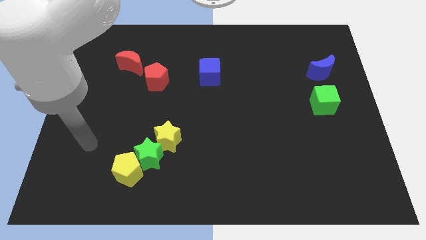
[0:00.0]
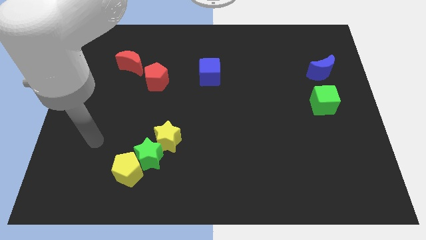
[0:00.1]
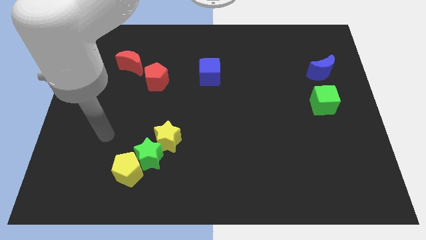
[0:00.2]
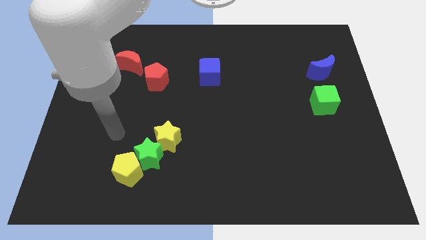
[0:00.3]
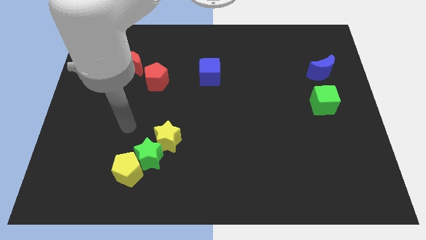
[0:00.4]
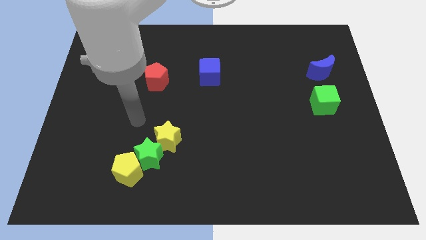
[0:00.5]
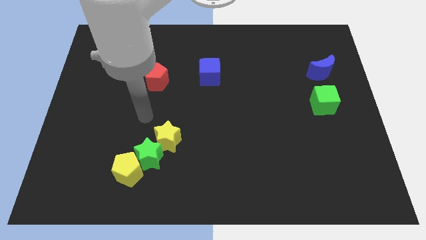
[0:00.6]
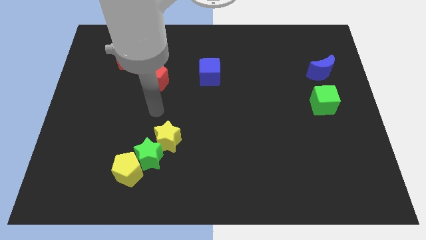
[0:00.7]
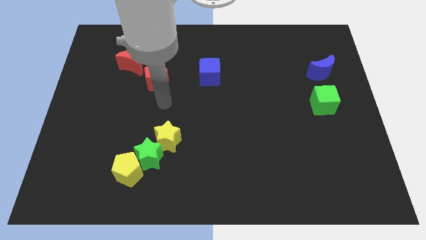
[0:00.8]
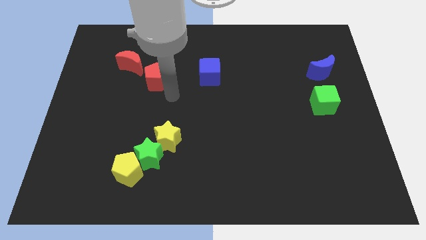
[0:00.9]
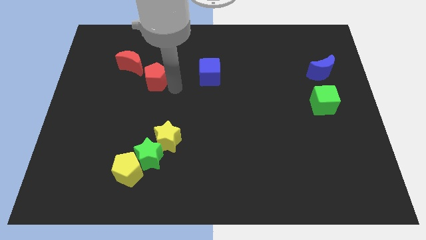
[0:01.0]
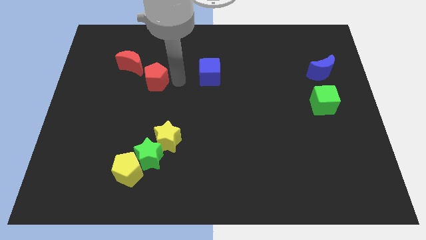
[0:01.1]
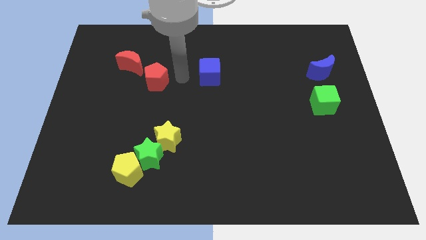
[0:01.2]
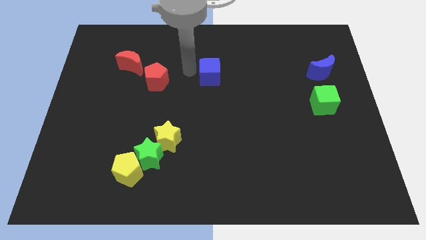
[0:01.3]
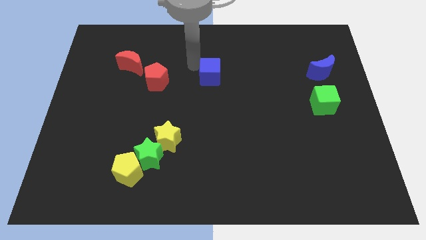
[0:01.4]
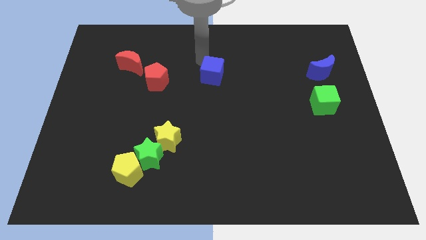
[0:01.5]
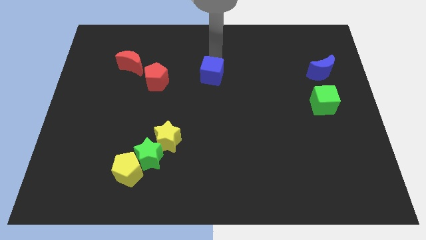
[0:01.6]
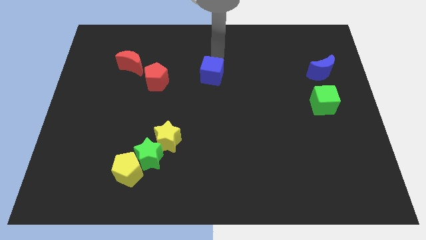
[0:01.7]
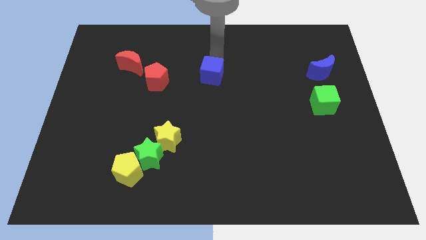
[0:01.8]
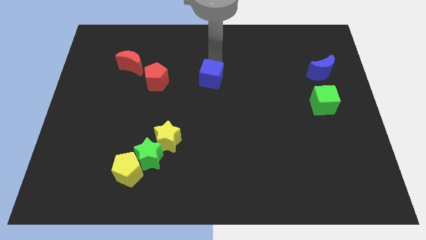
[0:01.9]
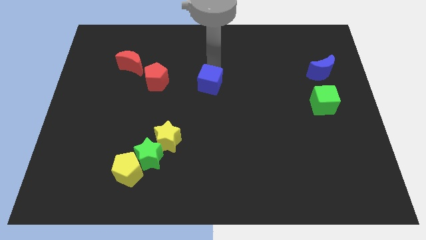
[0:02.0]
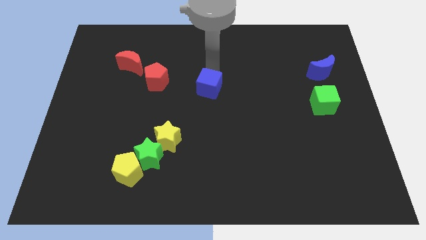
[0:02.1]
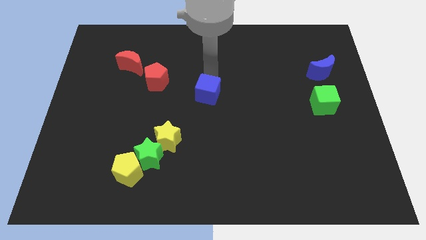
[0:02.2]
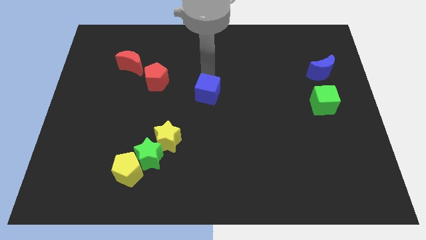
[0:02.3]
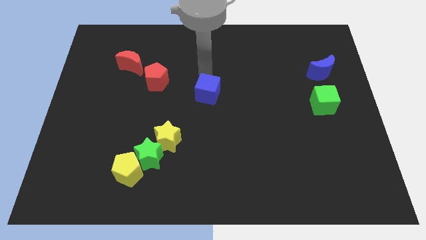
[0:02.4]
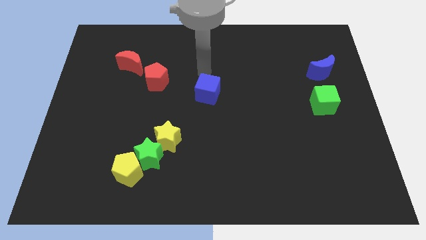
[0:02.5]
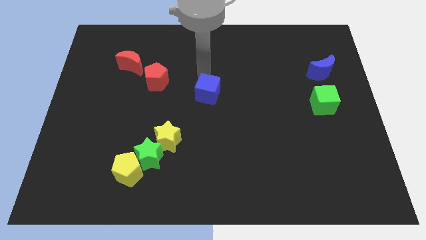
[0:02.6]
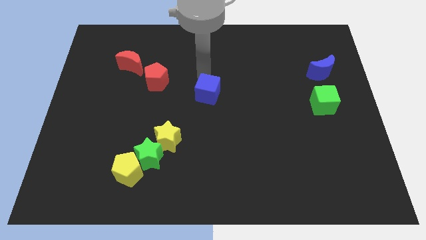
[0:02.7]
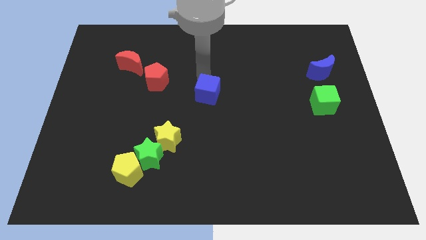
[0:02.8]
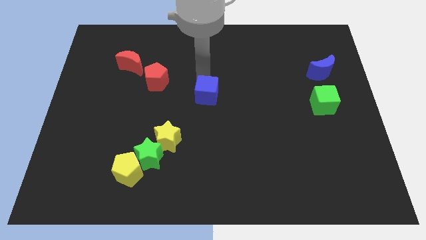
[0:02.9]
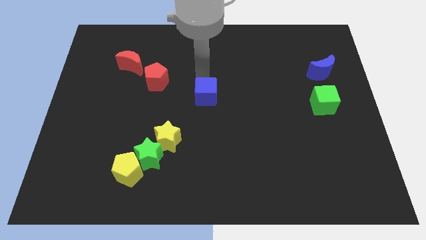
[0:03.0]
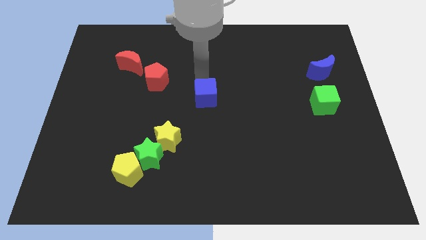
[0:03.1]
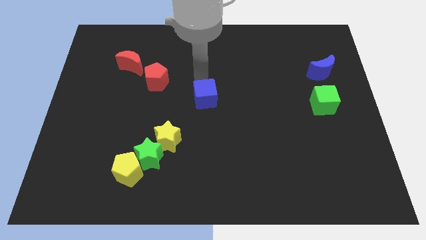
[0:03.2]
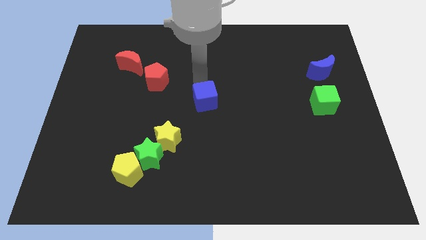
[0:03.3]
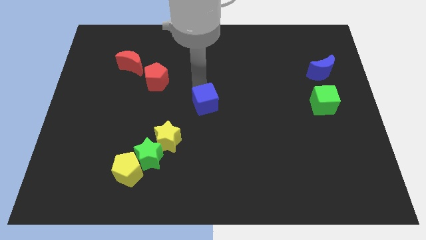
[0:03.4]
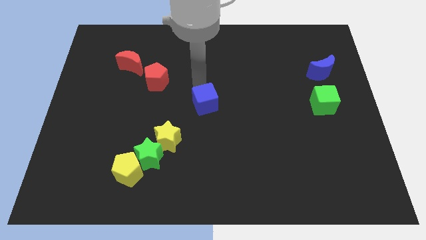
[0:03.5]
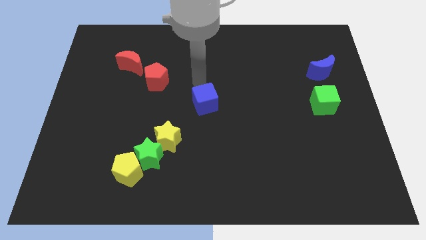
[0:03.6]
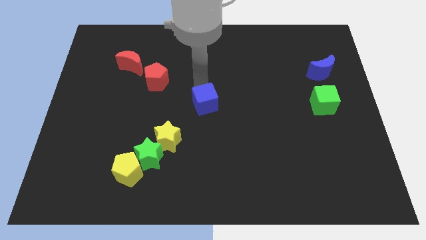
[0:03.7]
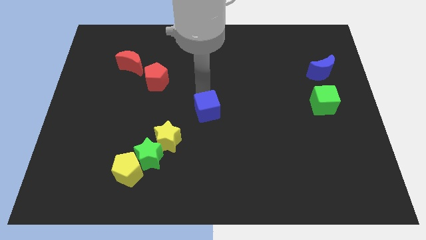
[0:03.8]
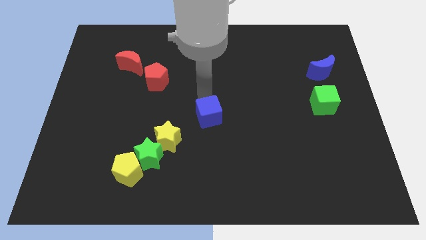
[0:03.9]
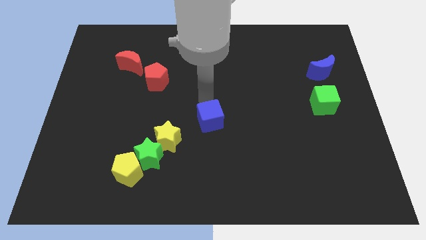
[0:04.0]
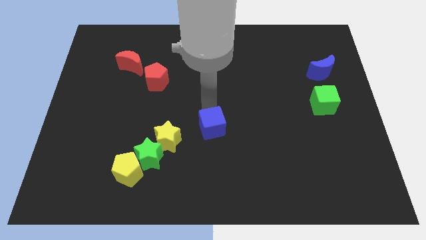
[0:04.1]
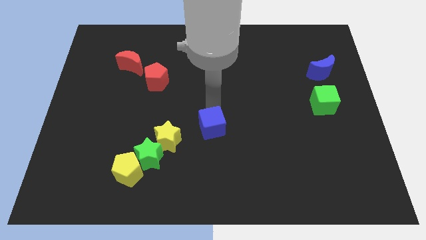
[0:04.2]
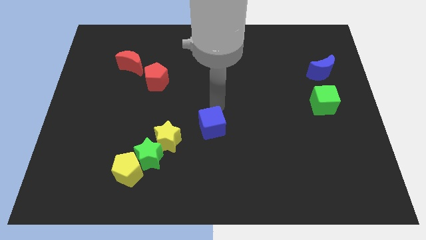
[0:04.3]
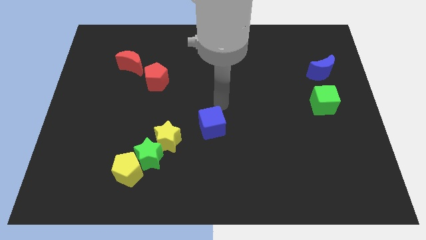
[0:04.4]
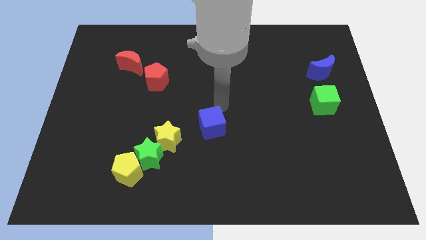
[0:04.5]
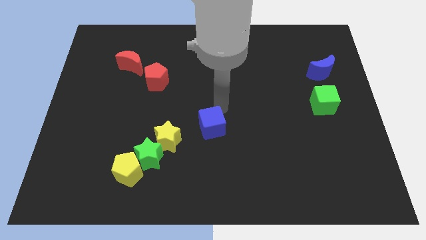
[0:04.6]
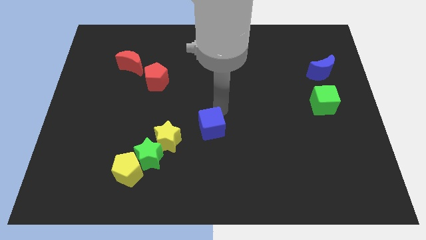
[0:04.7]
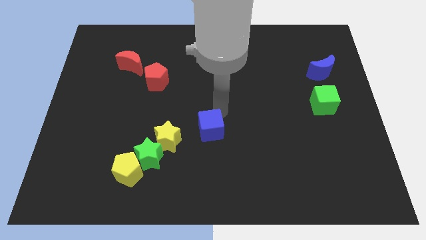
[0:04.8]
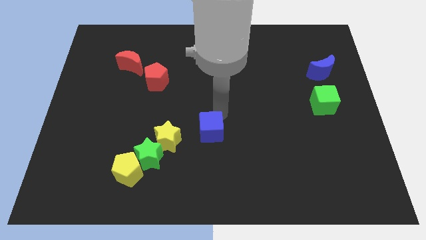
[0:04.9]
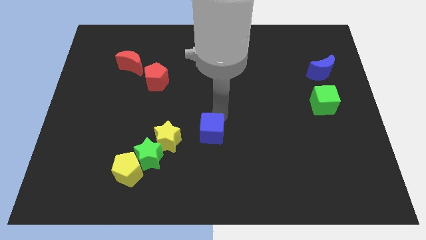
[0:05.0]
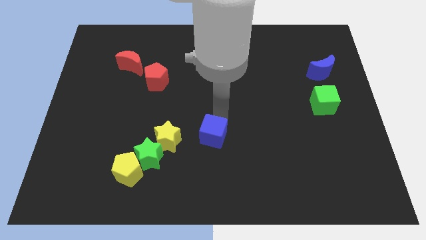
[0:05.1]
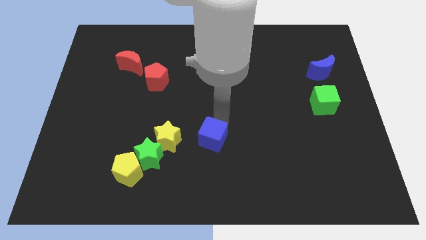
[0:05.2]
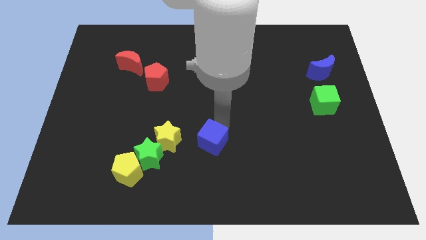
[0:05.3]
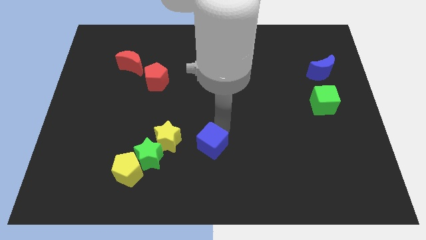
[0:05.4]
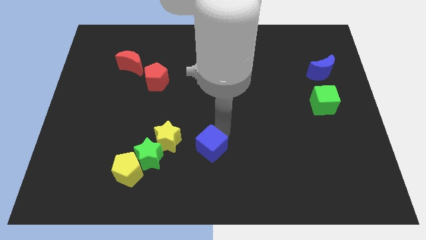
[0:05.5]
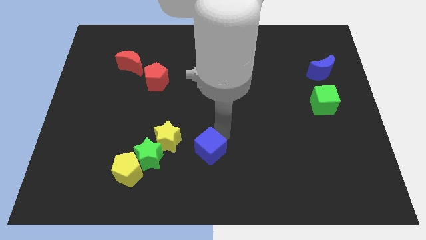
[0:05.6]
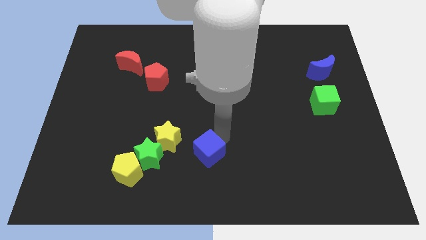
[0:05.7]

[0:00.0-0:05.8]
put the blue cube diagonally down and to the right of the yellow star

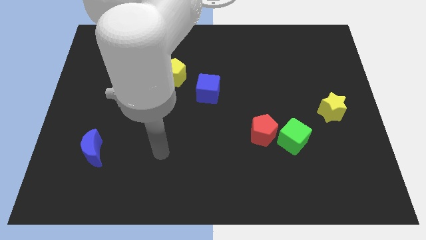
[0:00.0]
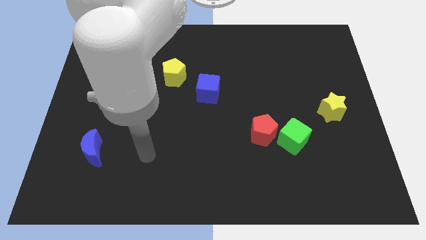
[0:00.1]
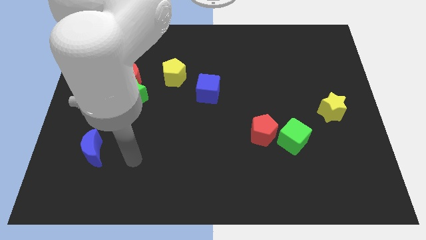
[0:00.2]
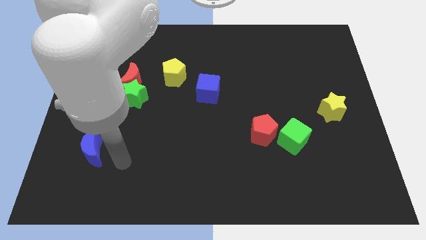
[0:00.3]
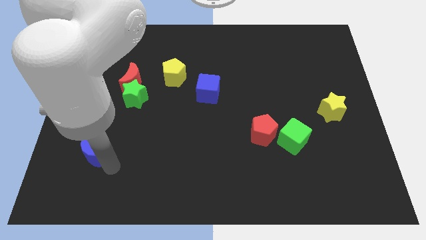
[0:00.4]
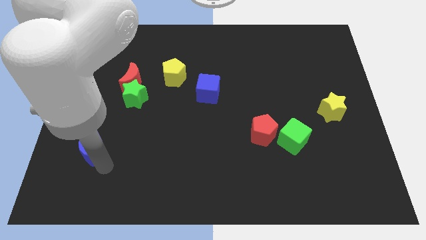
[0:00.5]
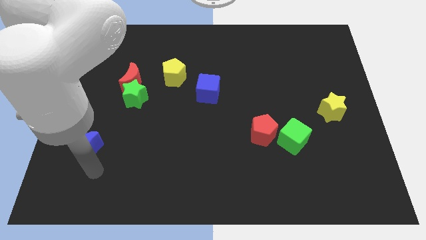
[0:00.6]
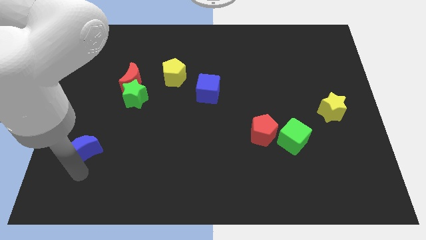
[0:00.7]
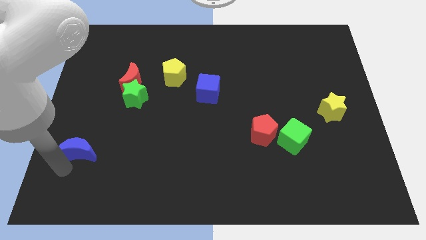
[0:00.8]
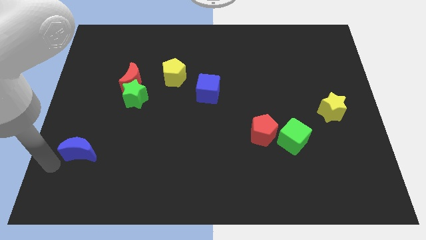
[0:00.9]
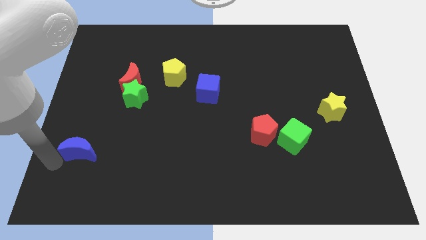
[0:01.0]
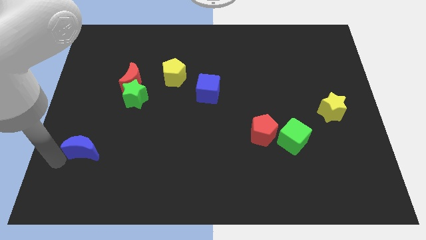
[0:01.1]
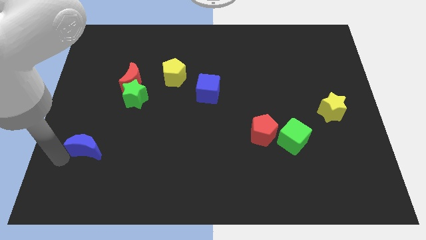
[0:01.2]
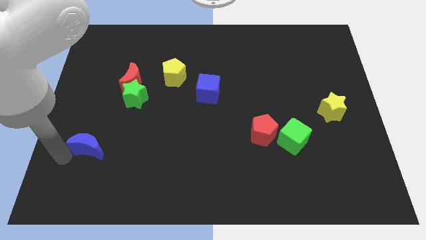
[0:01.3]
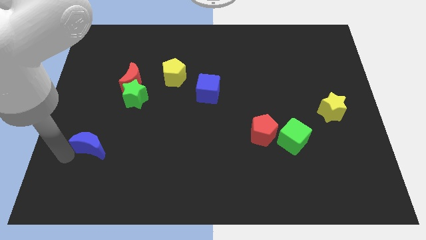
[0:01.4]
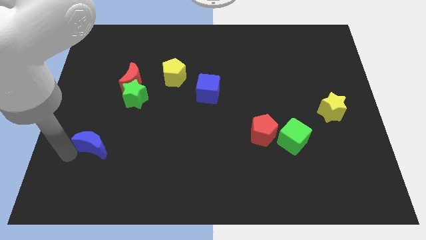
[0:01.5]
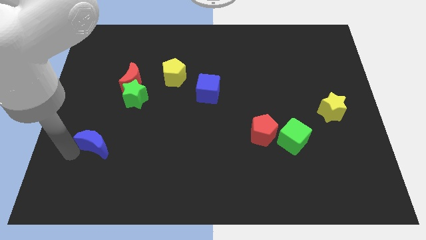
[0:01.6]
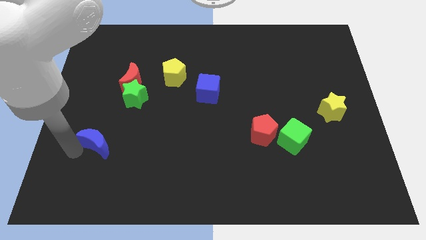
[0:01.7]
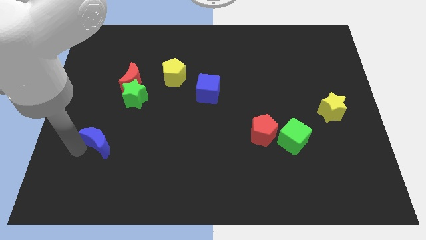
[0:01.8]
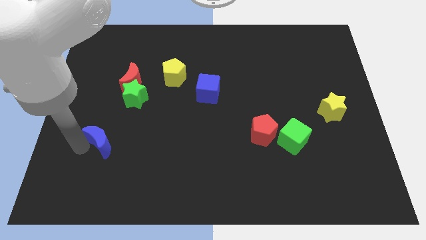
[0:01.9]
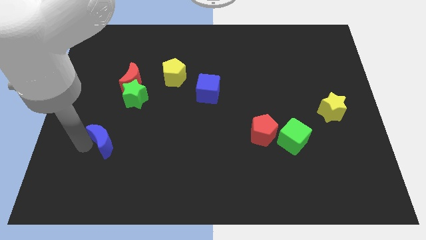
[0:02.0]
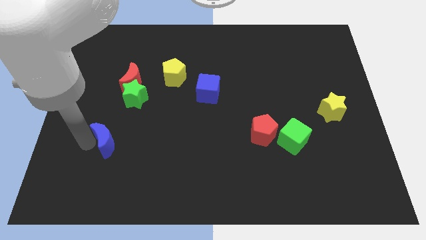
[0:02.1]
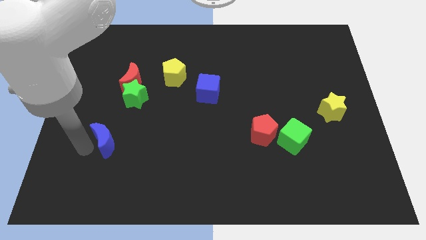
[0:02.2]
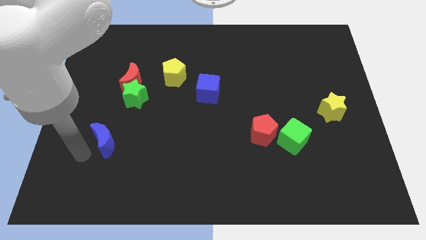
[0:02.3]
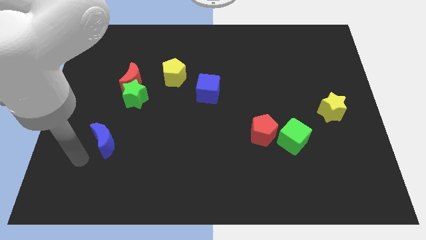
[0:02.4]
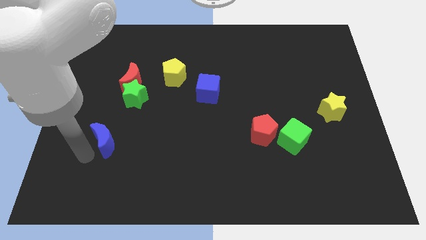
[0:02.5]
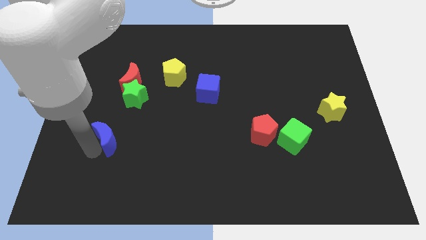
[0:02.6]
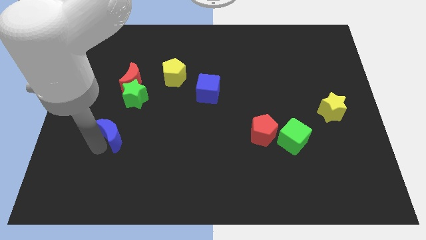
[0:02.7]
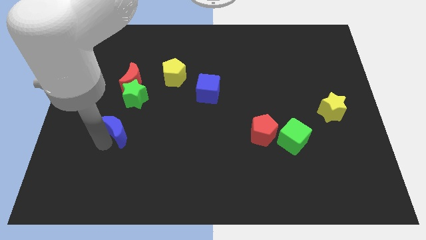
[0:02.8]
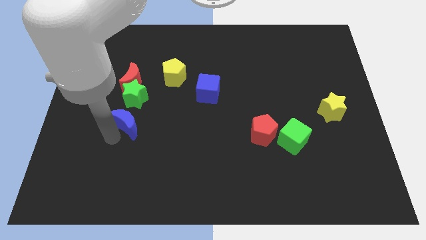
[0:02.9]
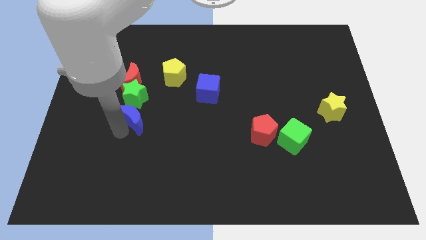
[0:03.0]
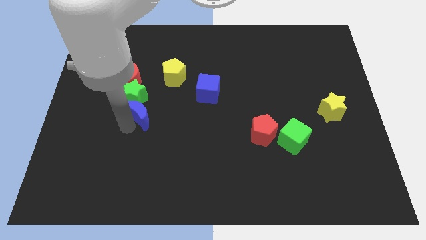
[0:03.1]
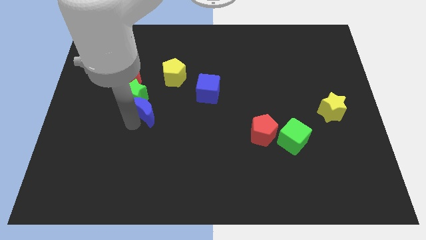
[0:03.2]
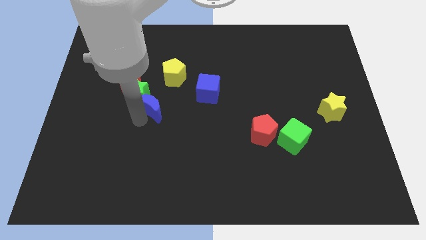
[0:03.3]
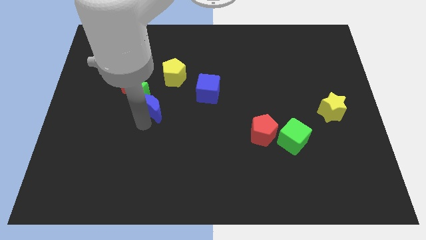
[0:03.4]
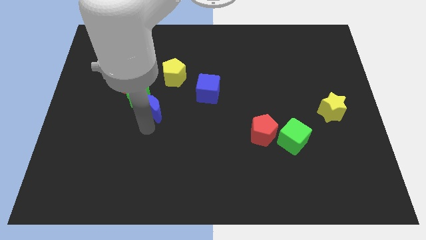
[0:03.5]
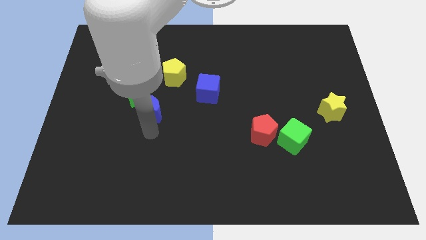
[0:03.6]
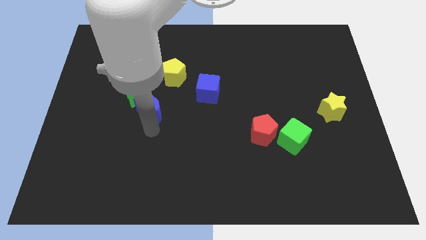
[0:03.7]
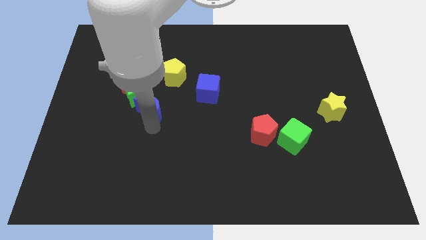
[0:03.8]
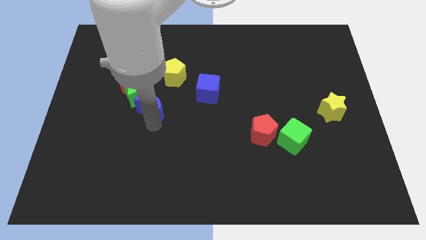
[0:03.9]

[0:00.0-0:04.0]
slide the blue moon diagonally down and to the left of the yellow pentagon
